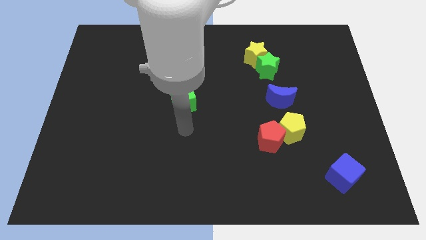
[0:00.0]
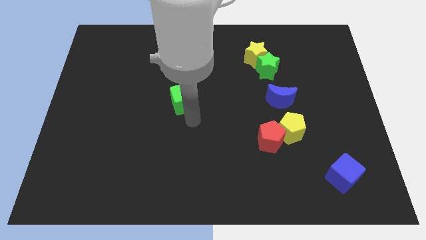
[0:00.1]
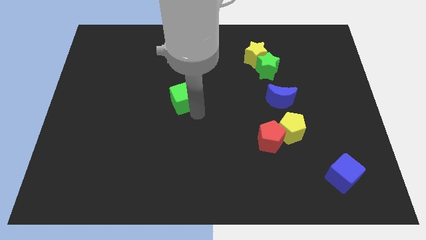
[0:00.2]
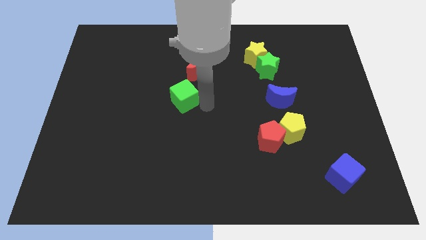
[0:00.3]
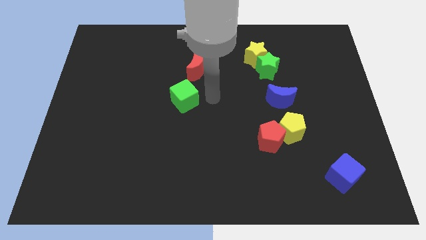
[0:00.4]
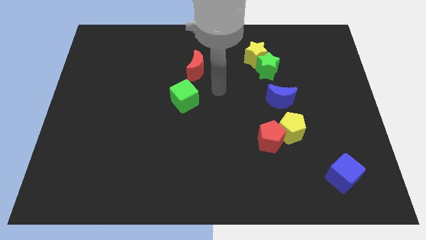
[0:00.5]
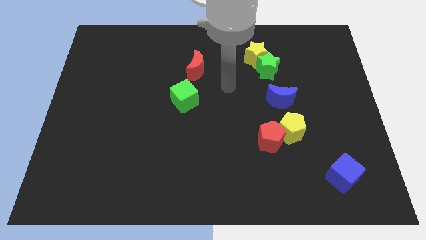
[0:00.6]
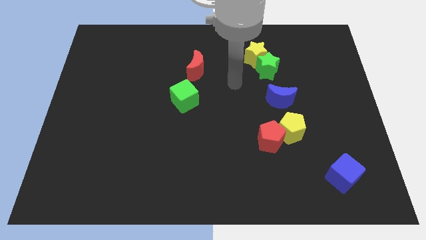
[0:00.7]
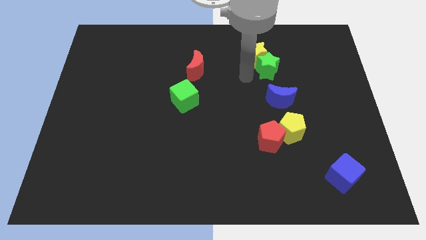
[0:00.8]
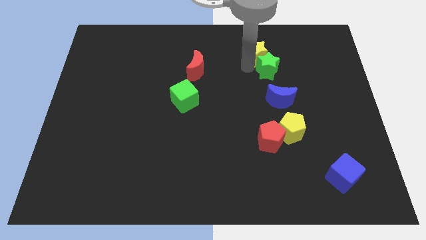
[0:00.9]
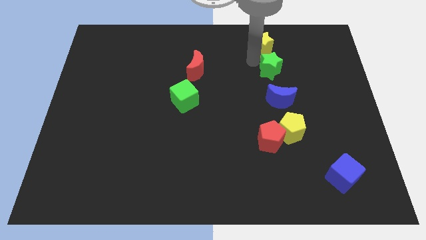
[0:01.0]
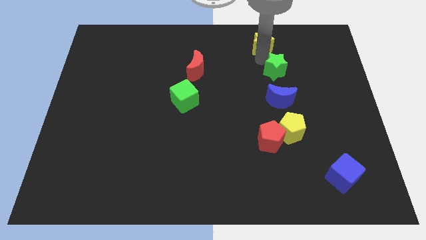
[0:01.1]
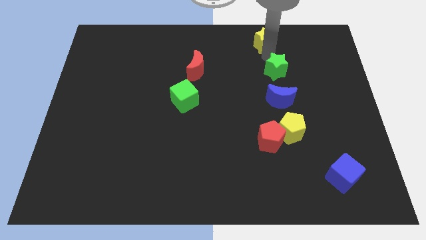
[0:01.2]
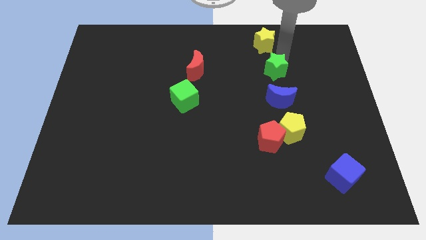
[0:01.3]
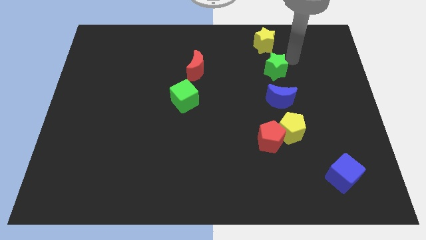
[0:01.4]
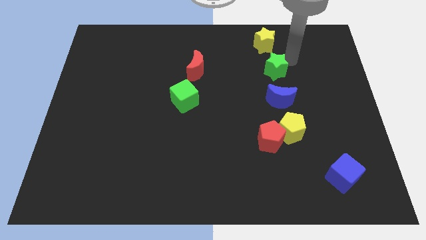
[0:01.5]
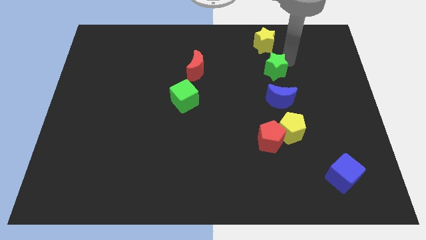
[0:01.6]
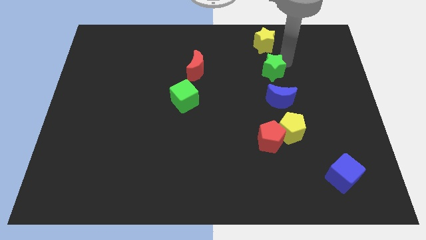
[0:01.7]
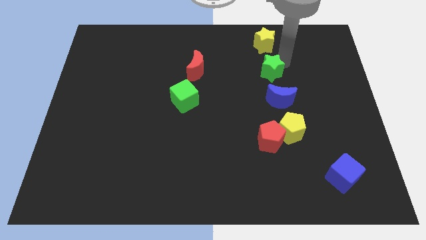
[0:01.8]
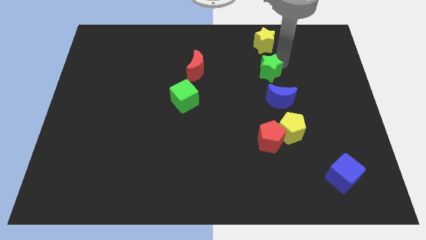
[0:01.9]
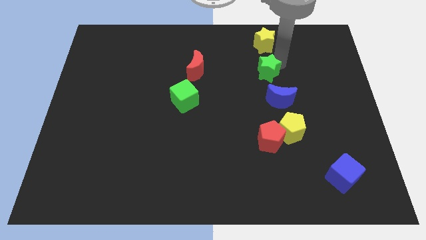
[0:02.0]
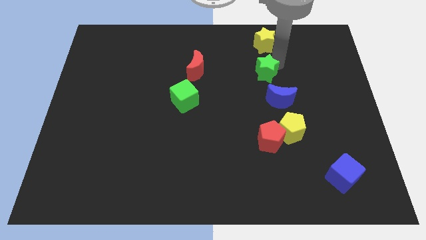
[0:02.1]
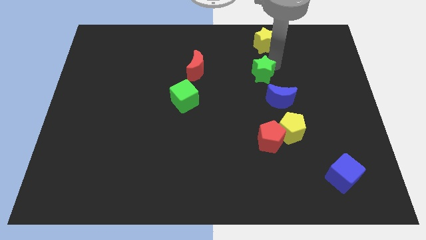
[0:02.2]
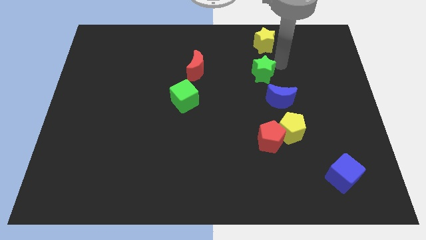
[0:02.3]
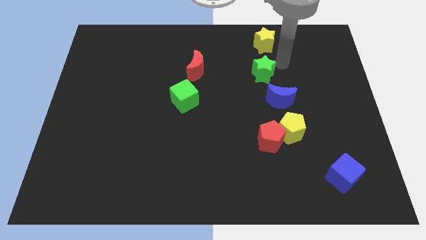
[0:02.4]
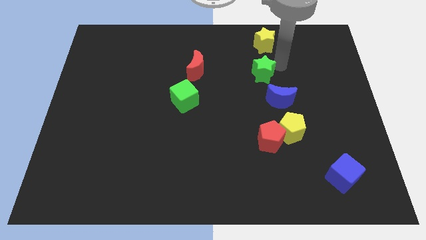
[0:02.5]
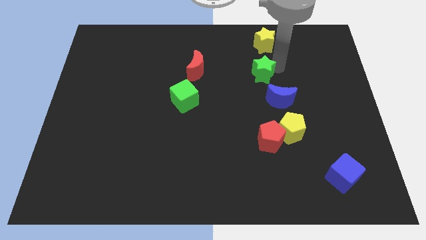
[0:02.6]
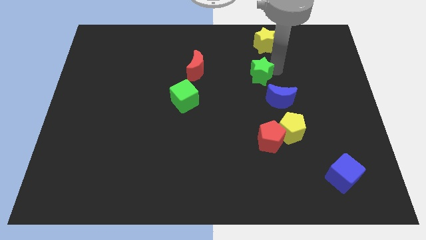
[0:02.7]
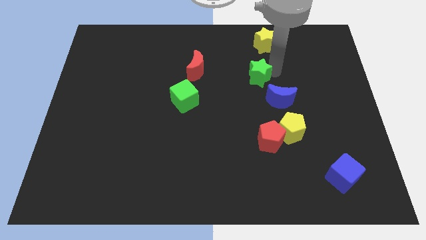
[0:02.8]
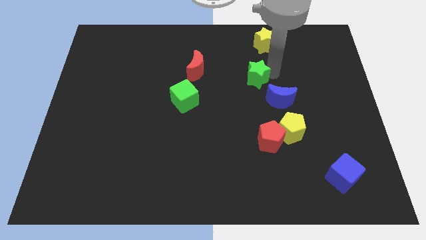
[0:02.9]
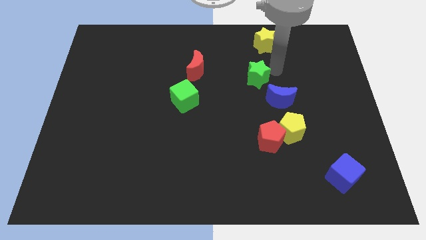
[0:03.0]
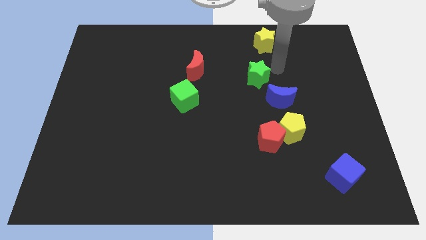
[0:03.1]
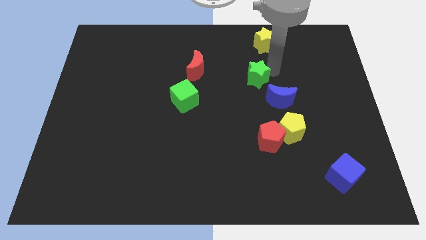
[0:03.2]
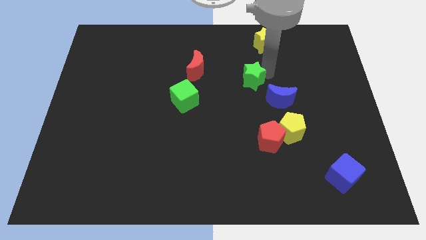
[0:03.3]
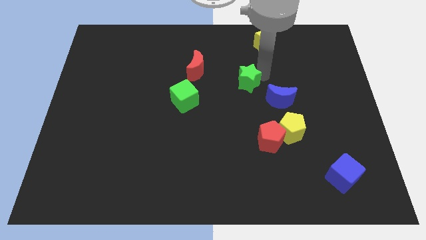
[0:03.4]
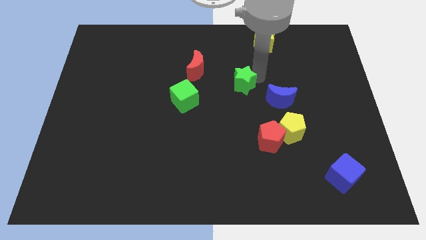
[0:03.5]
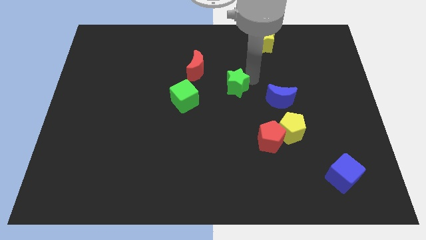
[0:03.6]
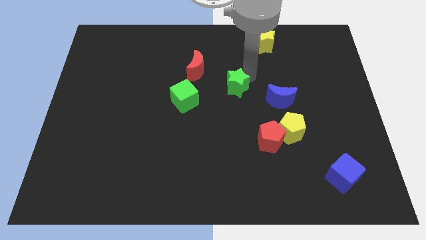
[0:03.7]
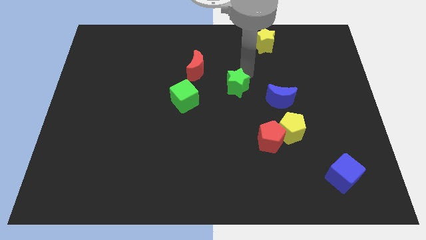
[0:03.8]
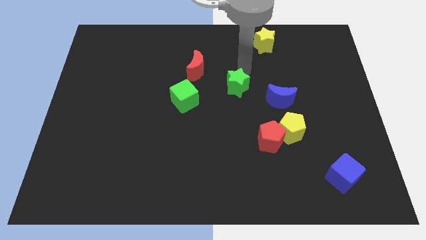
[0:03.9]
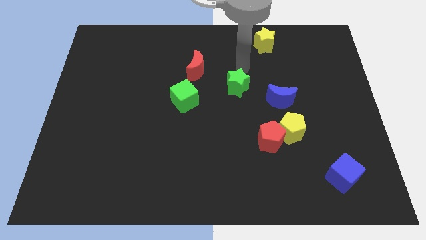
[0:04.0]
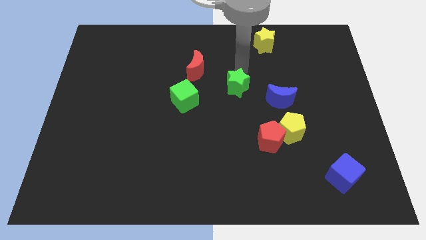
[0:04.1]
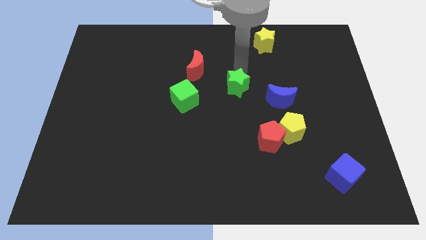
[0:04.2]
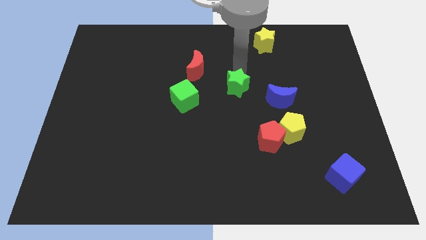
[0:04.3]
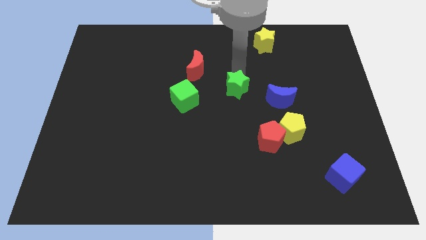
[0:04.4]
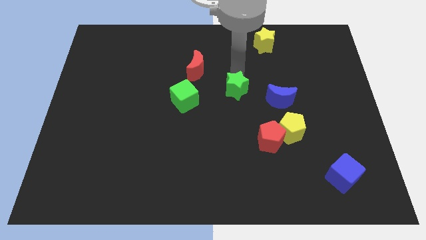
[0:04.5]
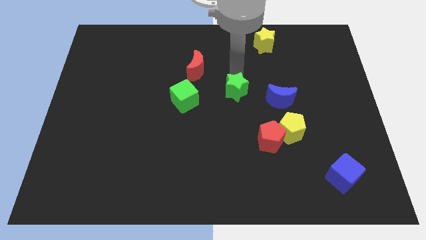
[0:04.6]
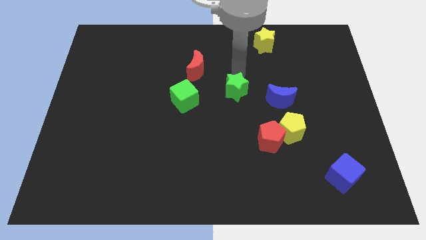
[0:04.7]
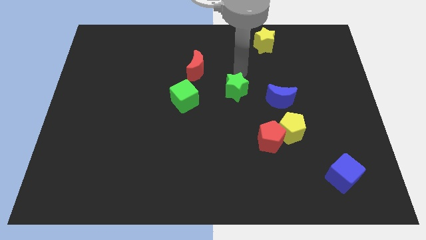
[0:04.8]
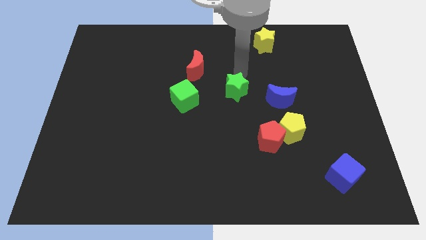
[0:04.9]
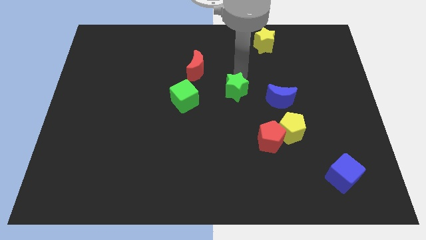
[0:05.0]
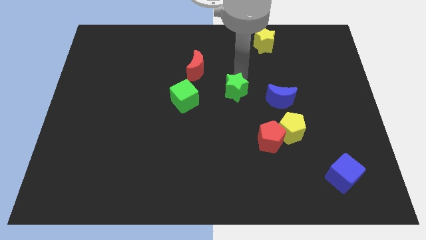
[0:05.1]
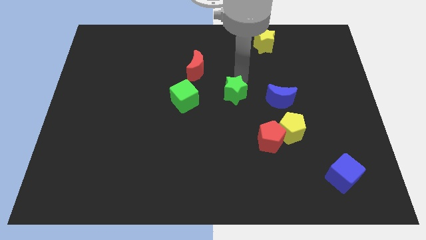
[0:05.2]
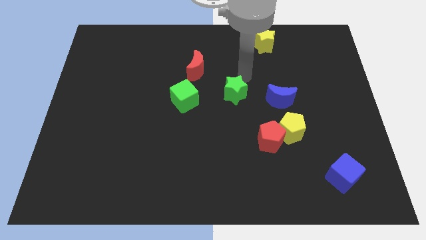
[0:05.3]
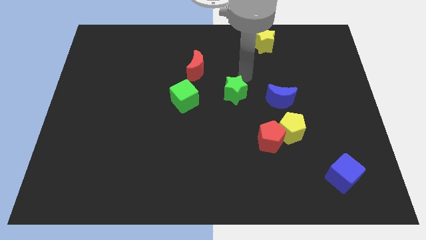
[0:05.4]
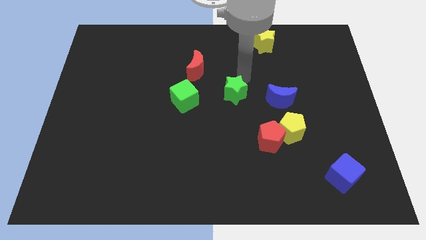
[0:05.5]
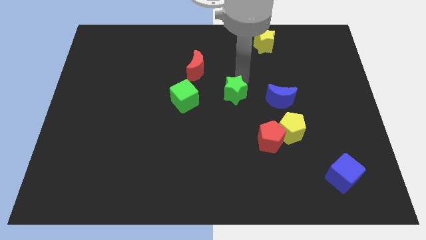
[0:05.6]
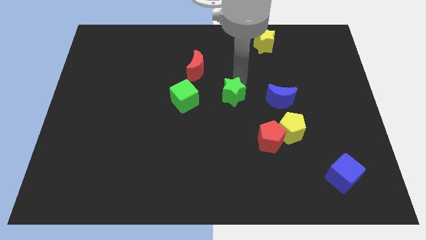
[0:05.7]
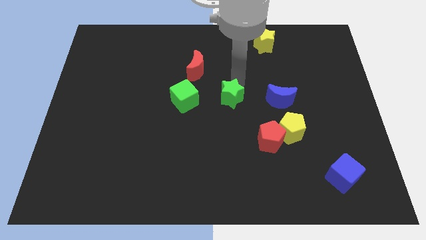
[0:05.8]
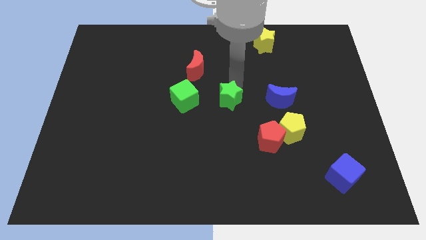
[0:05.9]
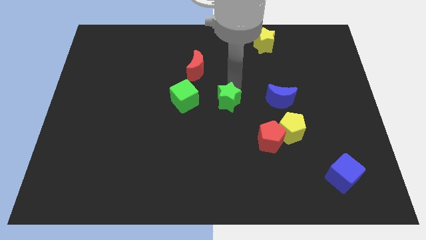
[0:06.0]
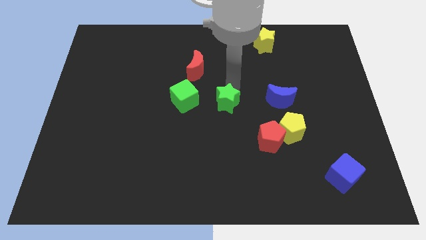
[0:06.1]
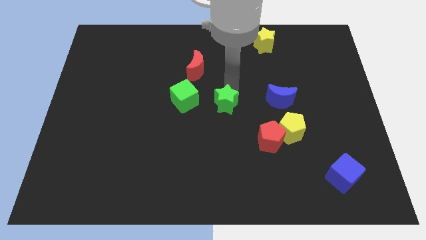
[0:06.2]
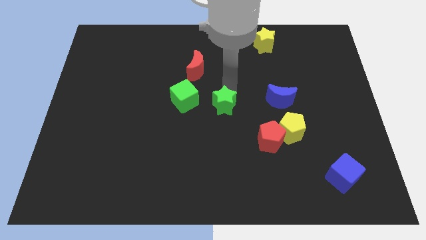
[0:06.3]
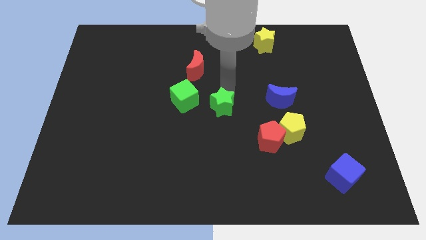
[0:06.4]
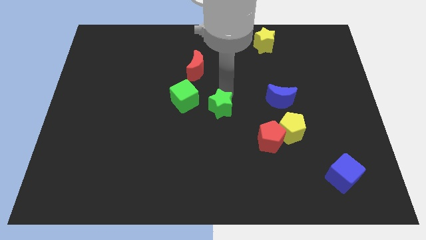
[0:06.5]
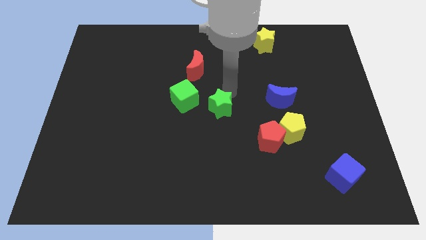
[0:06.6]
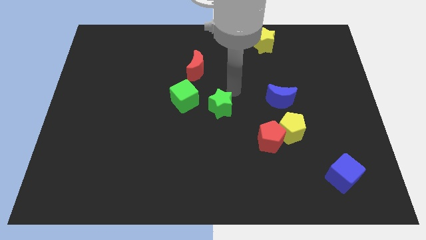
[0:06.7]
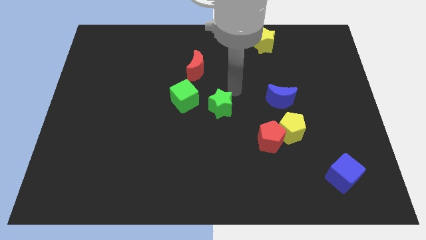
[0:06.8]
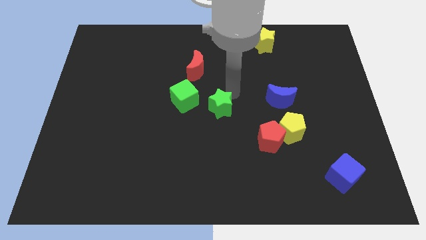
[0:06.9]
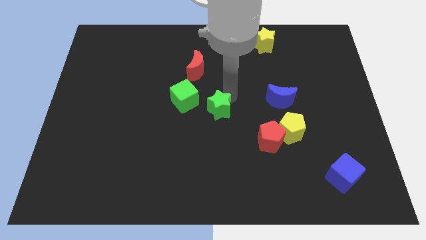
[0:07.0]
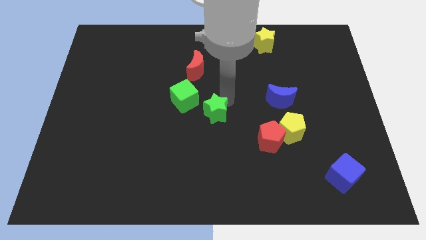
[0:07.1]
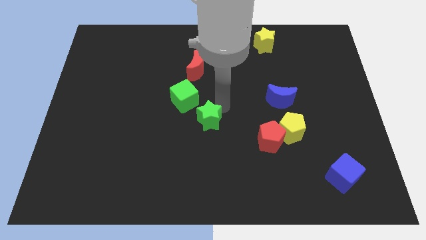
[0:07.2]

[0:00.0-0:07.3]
slide the green star diagonally downwards and to the left

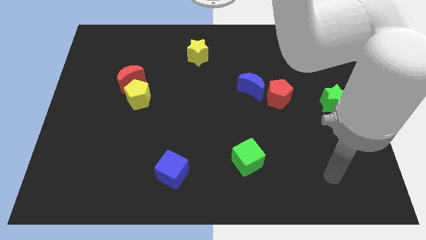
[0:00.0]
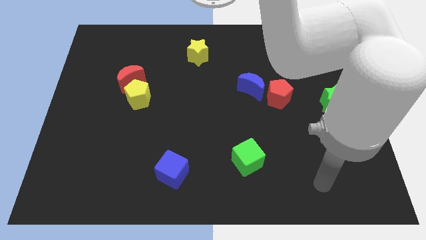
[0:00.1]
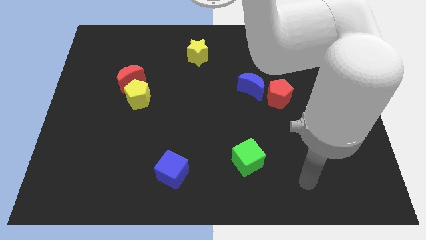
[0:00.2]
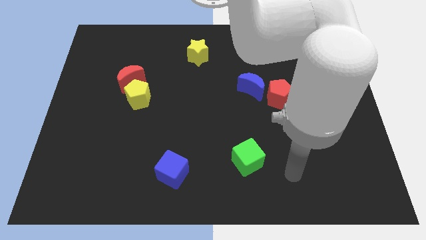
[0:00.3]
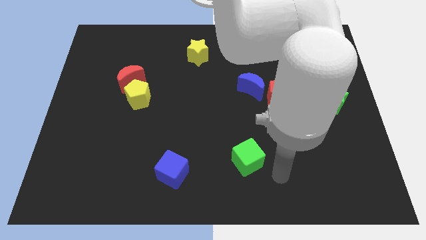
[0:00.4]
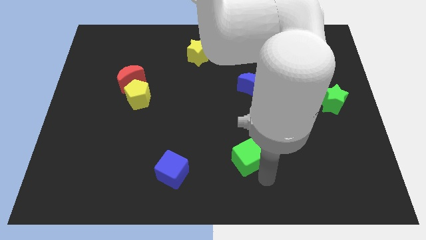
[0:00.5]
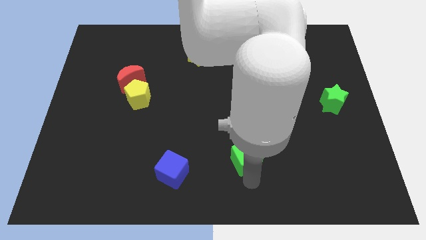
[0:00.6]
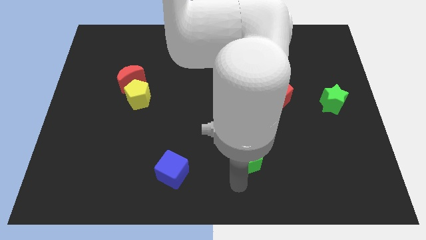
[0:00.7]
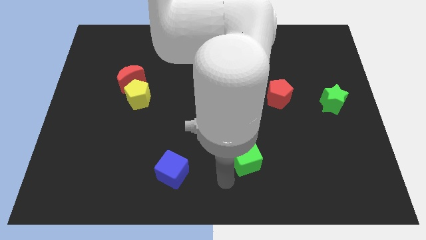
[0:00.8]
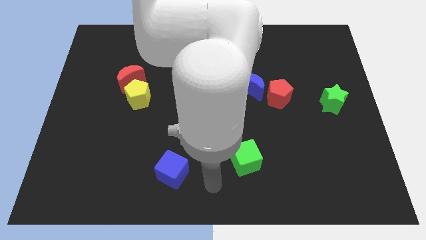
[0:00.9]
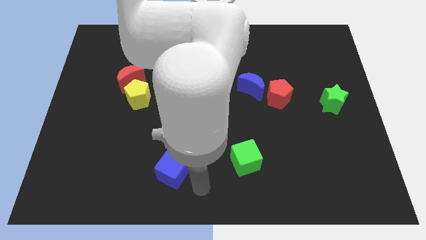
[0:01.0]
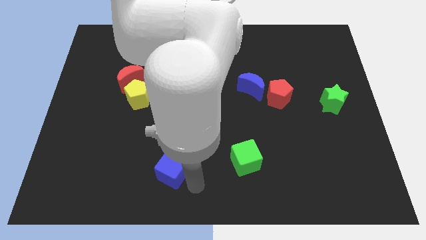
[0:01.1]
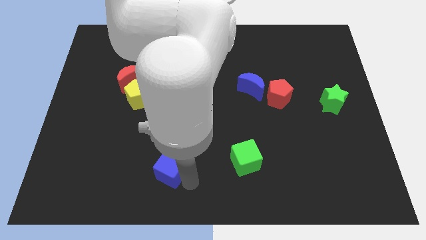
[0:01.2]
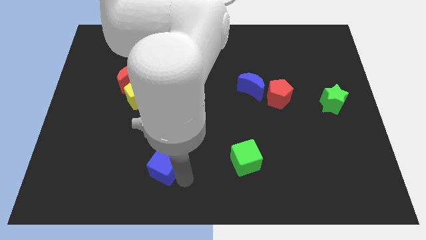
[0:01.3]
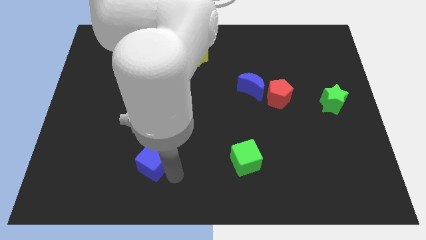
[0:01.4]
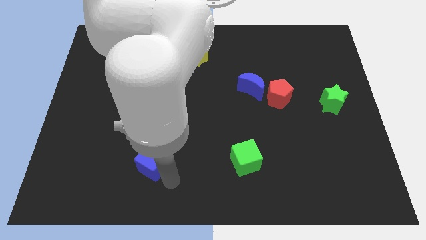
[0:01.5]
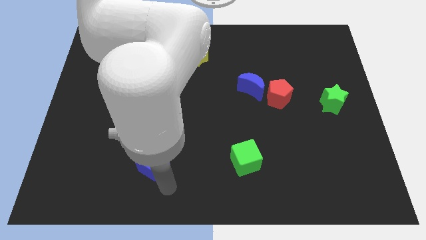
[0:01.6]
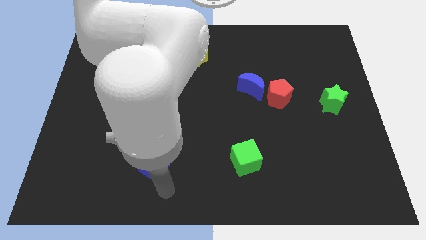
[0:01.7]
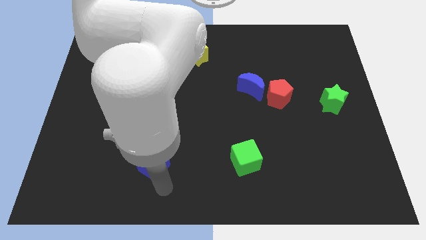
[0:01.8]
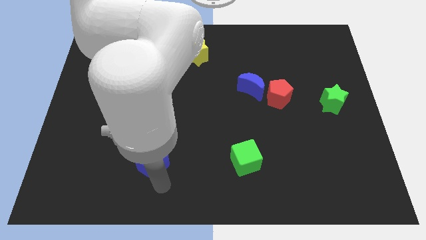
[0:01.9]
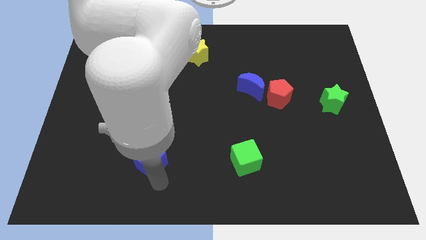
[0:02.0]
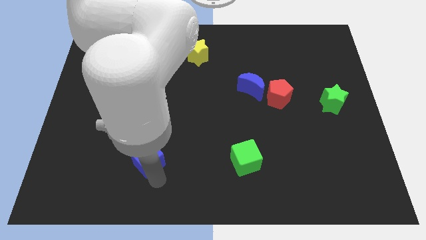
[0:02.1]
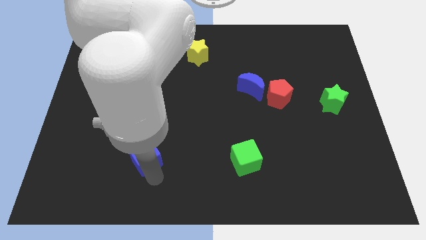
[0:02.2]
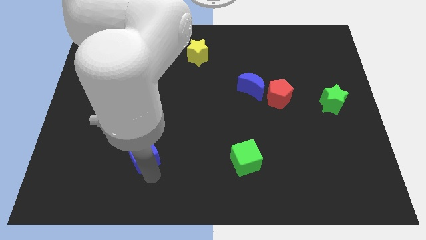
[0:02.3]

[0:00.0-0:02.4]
move the blue cube upwards and left diagonally a little bit
